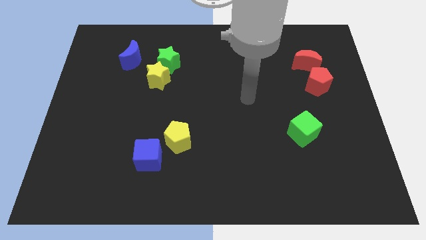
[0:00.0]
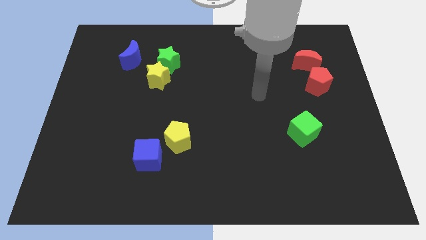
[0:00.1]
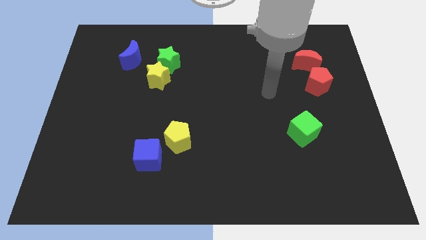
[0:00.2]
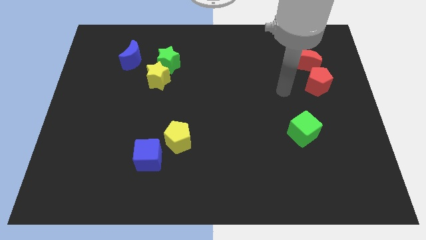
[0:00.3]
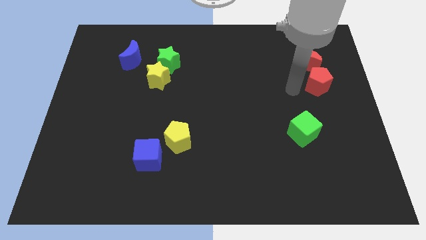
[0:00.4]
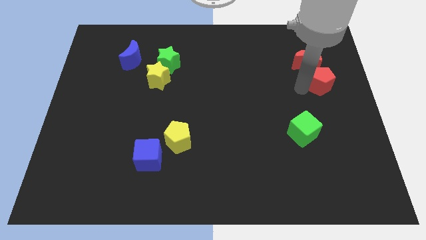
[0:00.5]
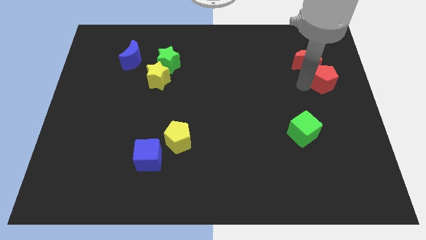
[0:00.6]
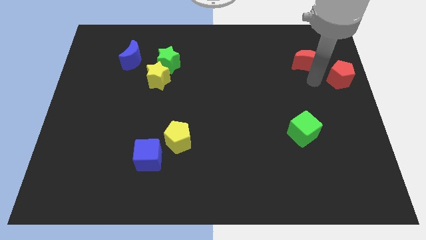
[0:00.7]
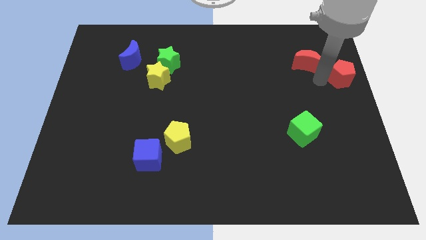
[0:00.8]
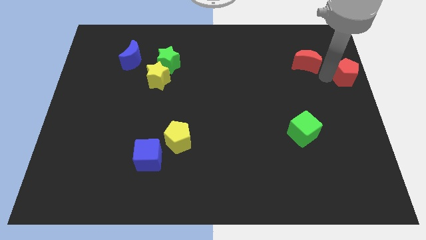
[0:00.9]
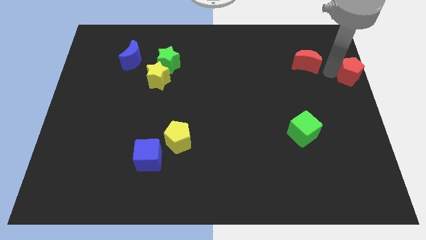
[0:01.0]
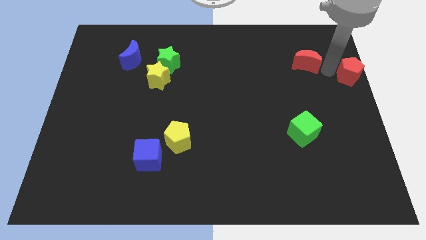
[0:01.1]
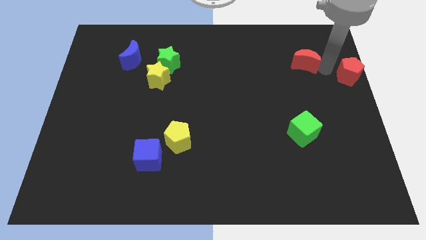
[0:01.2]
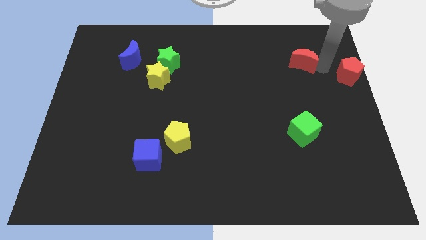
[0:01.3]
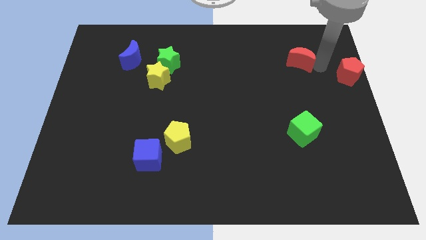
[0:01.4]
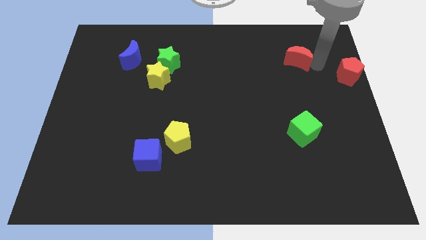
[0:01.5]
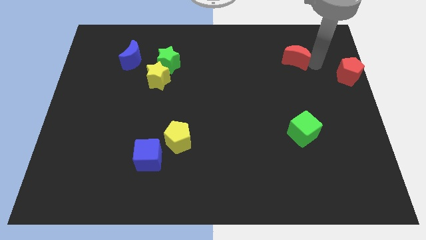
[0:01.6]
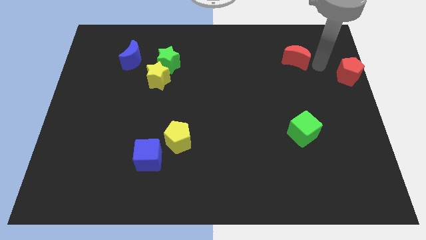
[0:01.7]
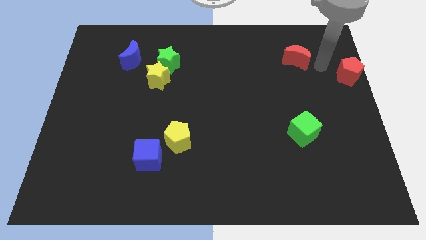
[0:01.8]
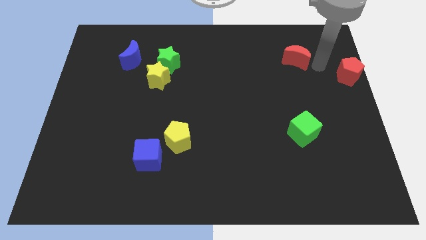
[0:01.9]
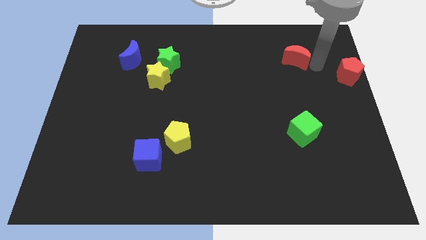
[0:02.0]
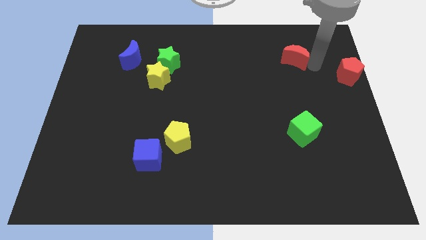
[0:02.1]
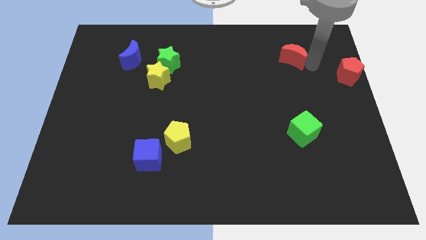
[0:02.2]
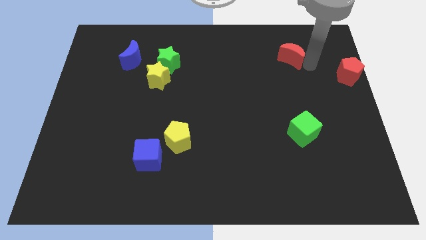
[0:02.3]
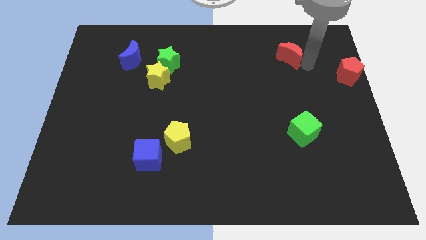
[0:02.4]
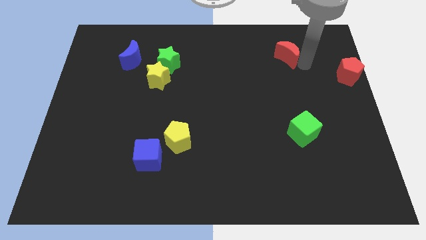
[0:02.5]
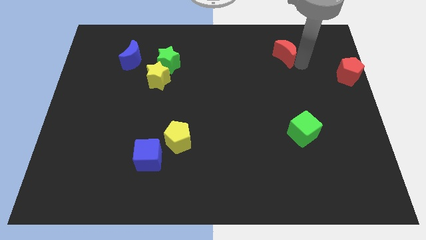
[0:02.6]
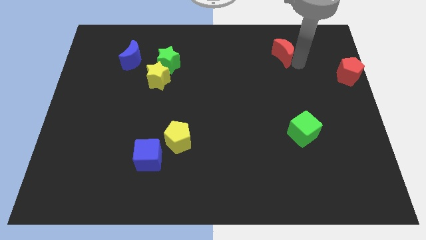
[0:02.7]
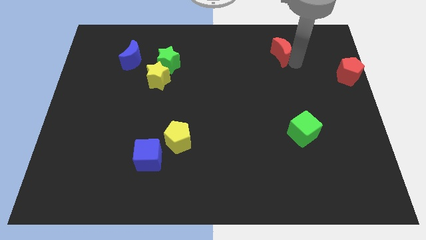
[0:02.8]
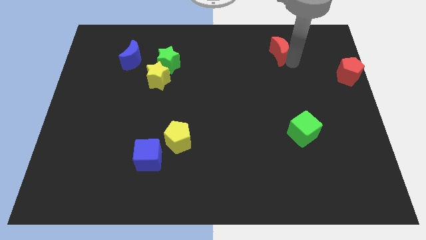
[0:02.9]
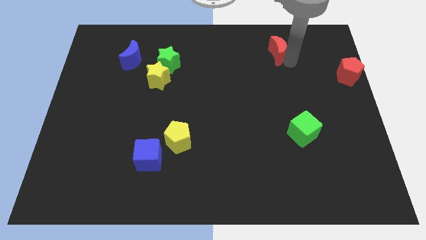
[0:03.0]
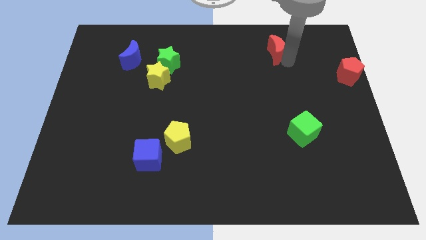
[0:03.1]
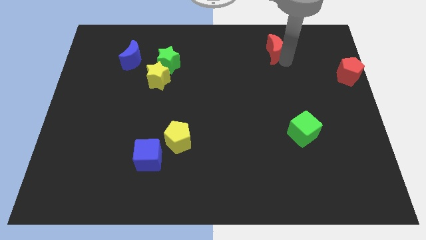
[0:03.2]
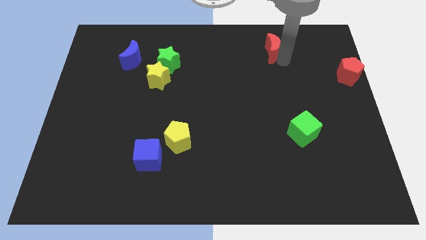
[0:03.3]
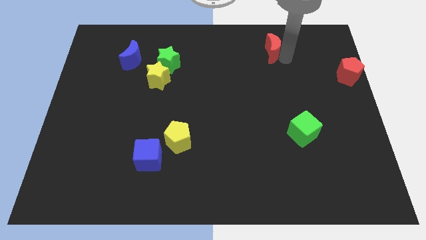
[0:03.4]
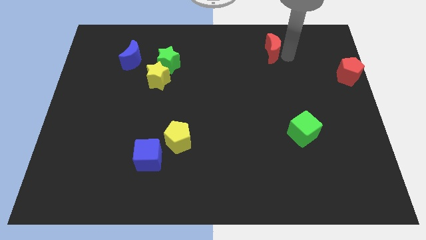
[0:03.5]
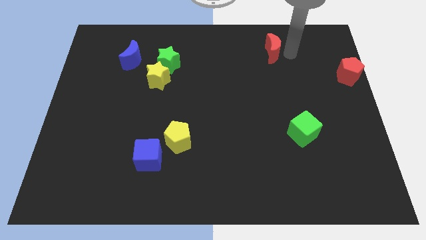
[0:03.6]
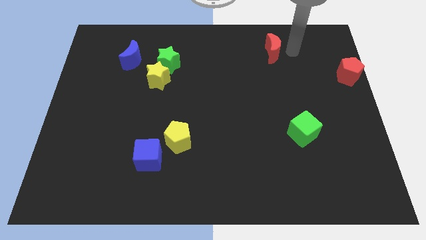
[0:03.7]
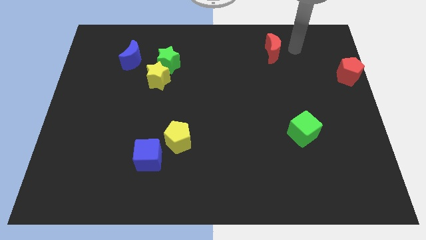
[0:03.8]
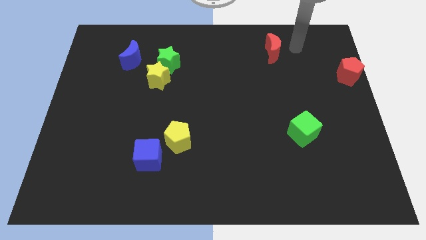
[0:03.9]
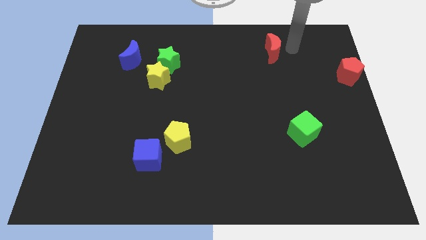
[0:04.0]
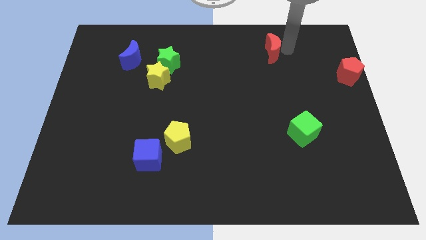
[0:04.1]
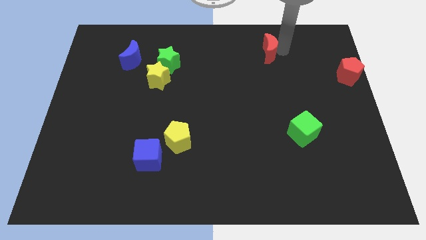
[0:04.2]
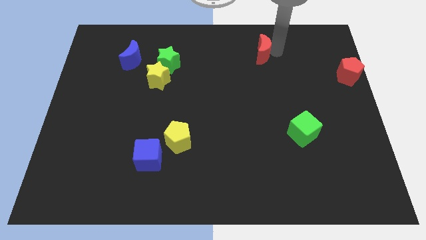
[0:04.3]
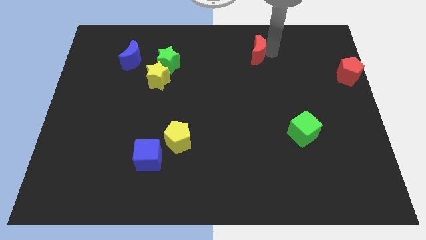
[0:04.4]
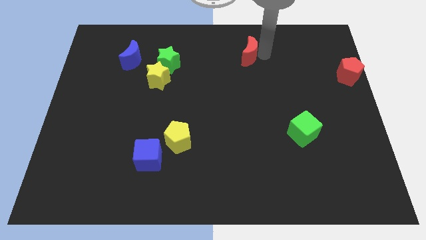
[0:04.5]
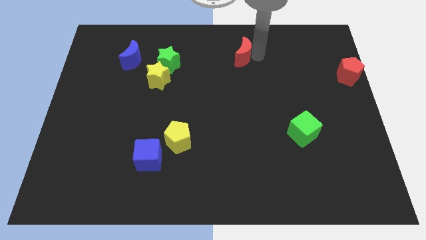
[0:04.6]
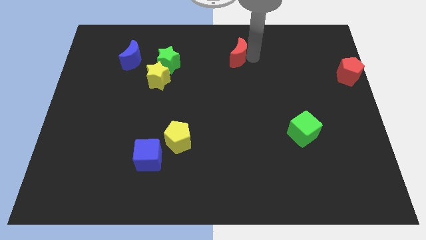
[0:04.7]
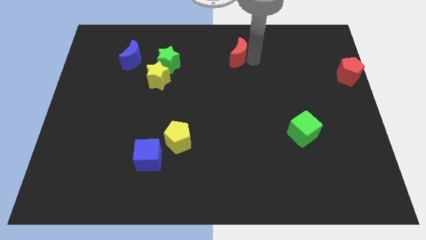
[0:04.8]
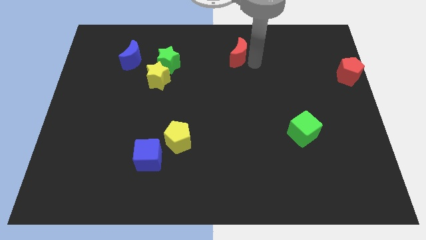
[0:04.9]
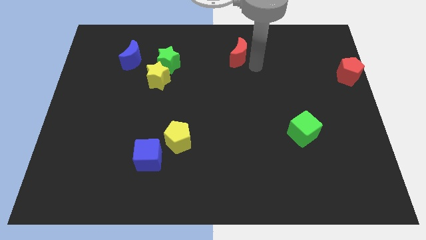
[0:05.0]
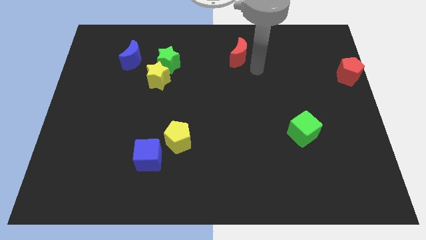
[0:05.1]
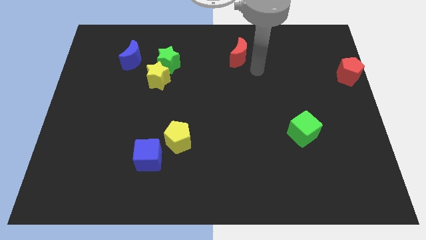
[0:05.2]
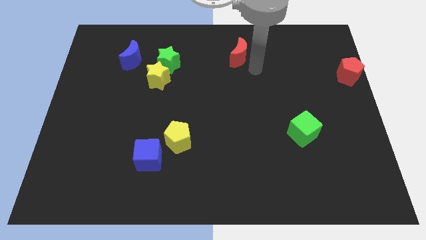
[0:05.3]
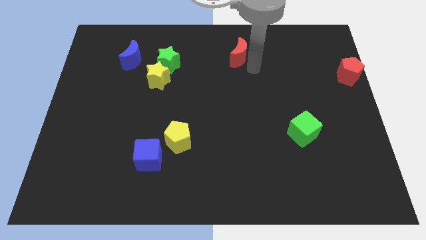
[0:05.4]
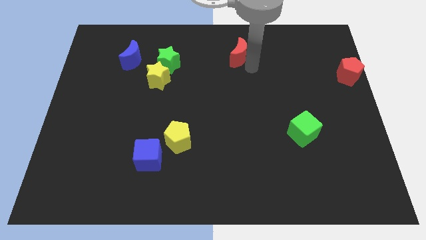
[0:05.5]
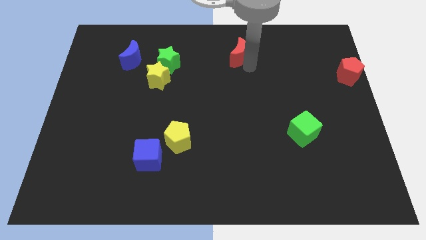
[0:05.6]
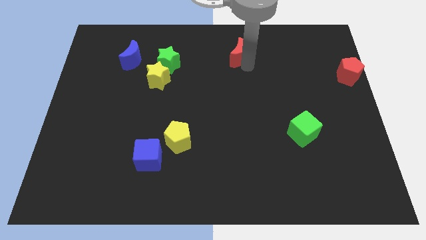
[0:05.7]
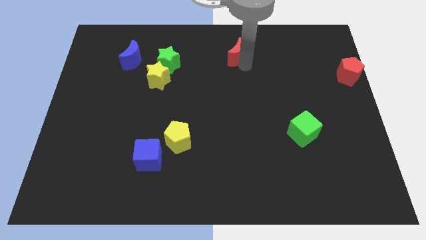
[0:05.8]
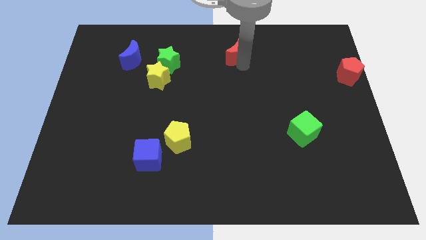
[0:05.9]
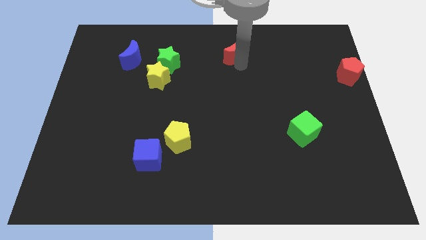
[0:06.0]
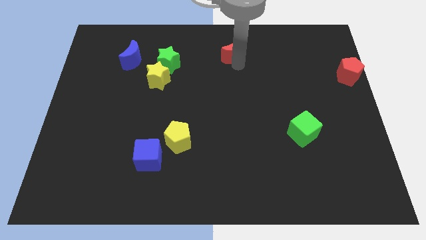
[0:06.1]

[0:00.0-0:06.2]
move the red moon to the towards your base

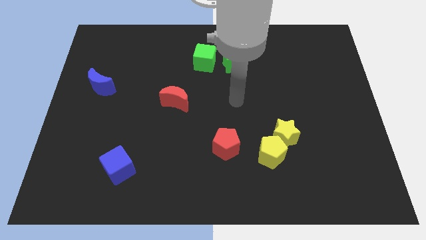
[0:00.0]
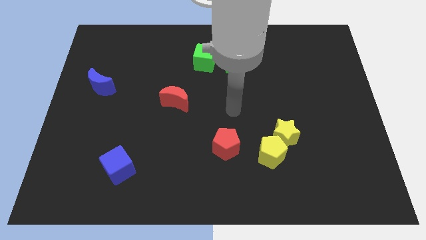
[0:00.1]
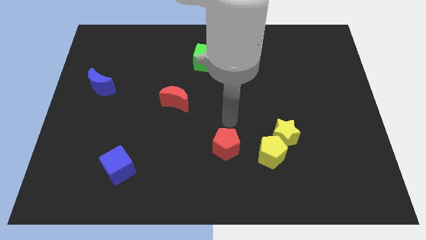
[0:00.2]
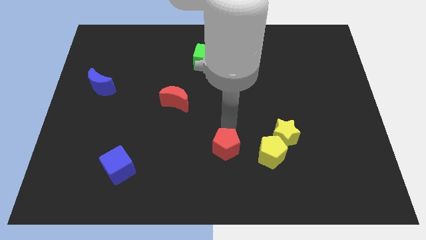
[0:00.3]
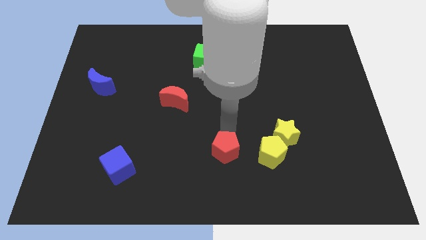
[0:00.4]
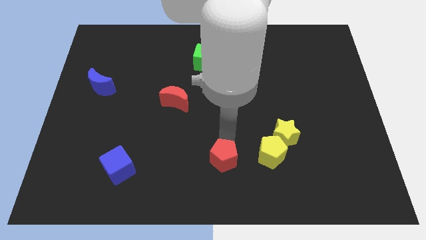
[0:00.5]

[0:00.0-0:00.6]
slide the red pentagon to the bottom side
